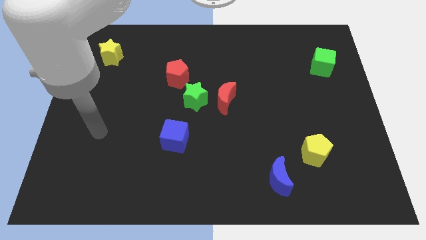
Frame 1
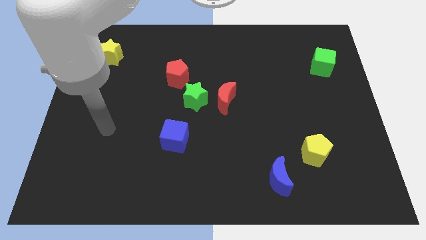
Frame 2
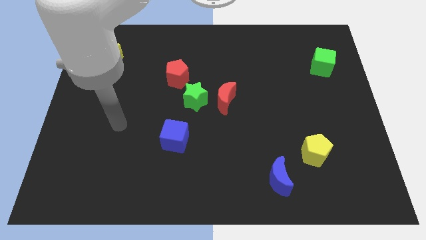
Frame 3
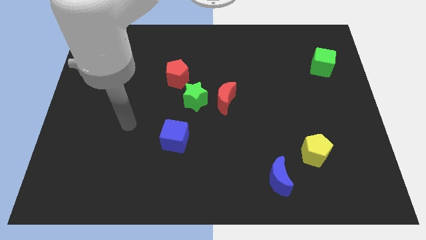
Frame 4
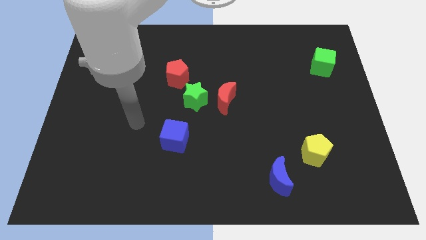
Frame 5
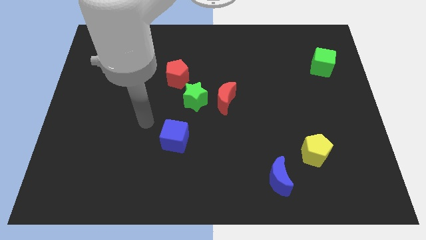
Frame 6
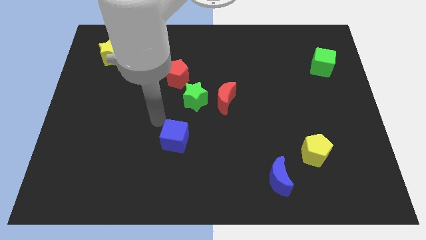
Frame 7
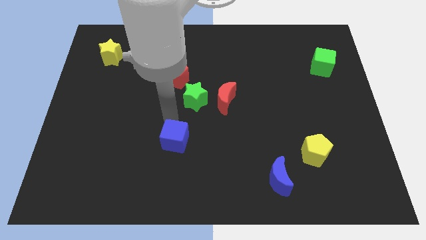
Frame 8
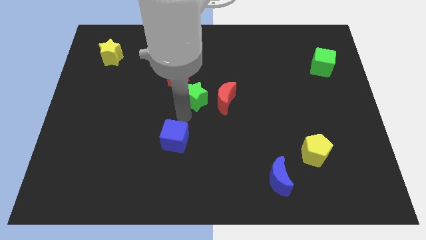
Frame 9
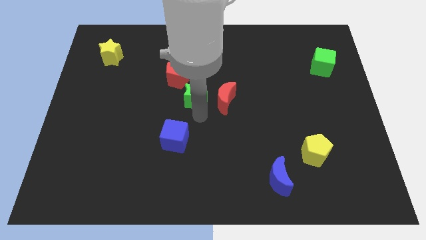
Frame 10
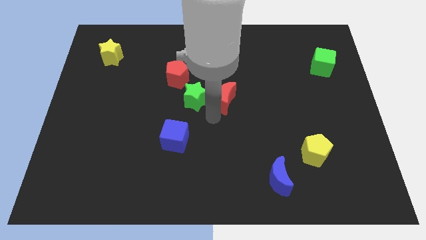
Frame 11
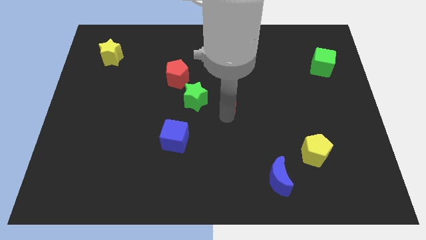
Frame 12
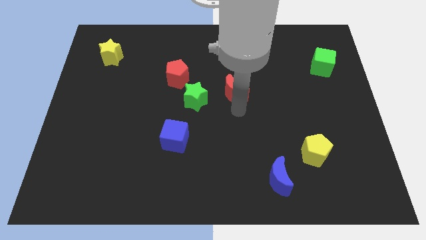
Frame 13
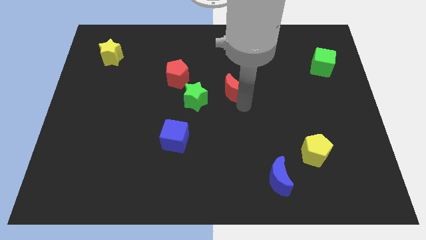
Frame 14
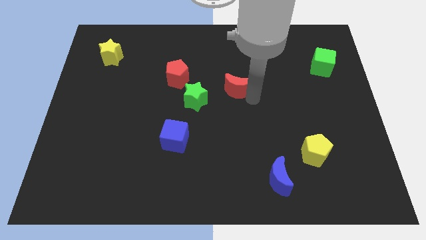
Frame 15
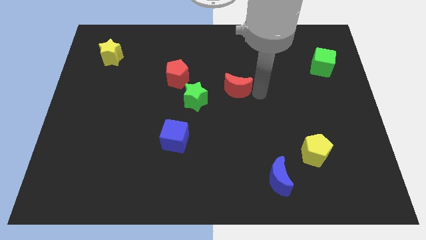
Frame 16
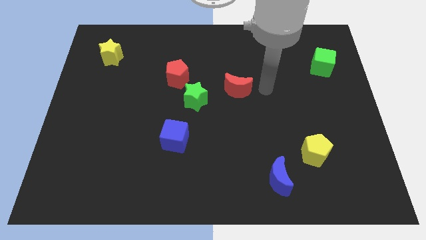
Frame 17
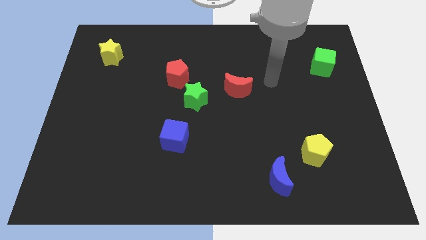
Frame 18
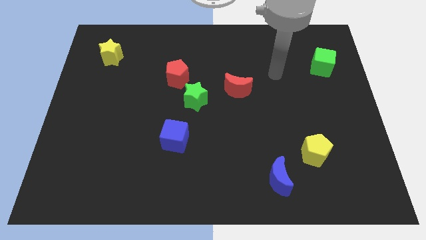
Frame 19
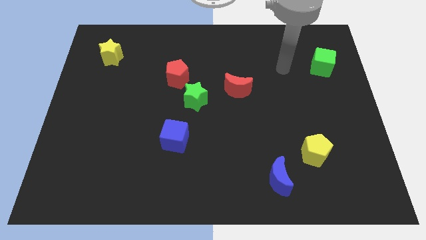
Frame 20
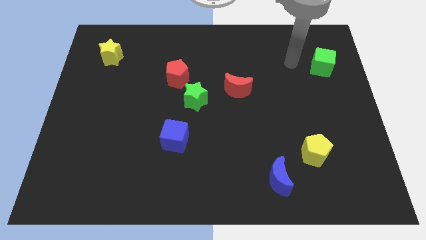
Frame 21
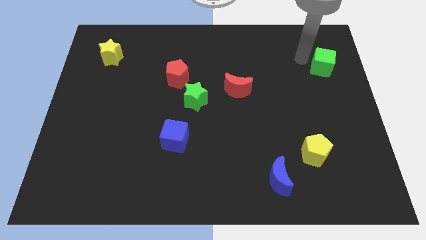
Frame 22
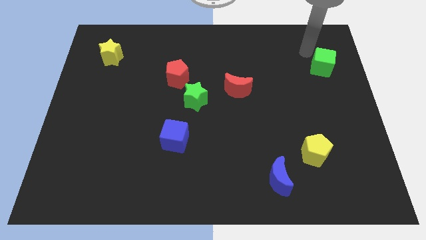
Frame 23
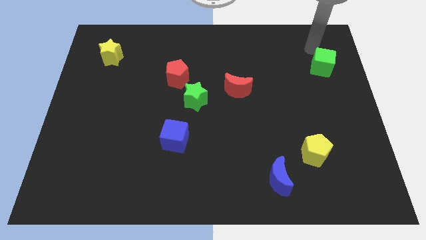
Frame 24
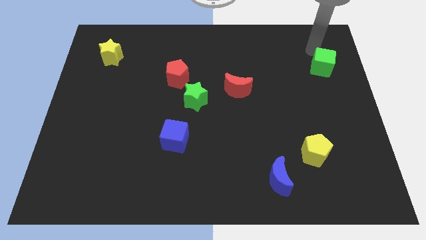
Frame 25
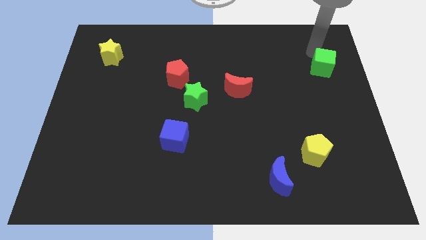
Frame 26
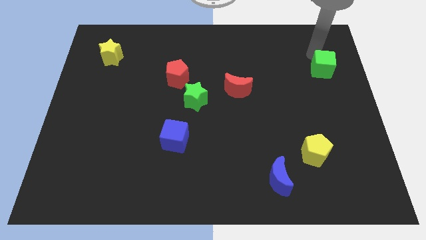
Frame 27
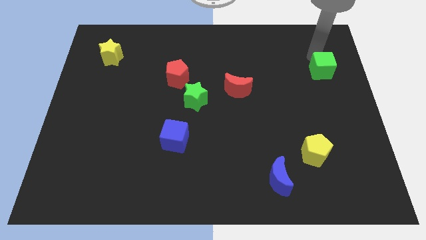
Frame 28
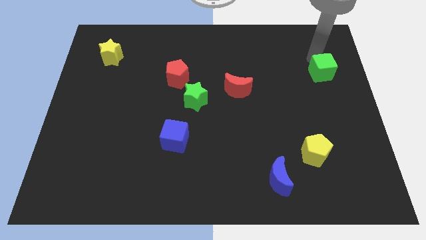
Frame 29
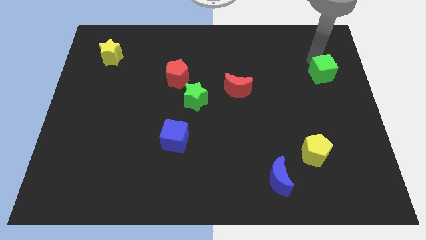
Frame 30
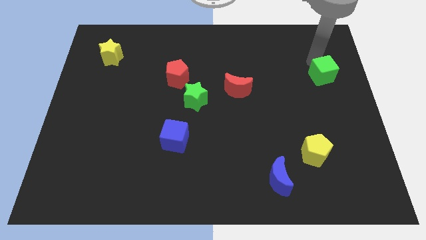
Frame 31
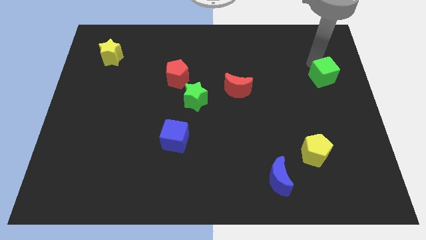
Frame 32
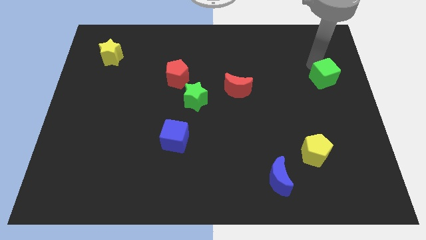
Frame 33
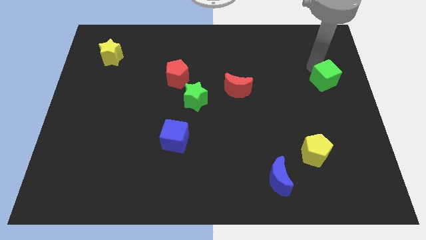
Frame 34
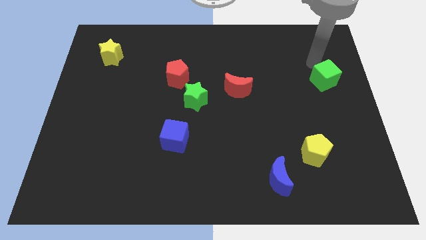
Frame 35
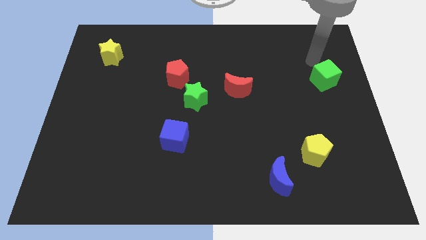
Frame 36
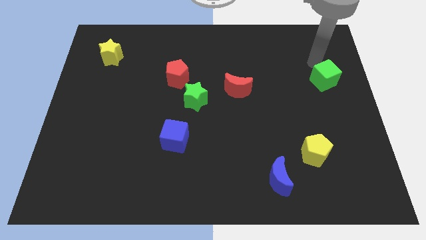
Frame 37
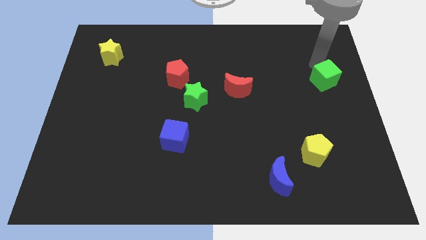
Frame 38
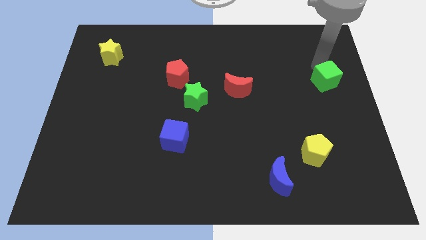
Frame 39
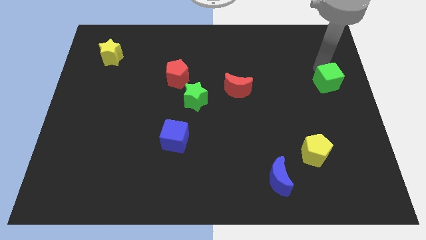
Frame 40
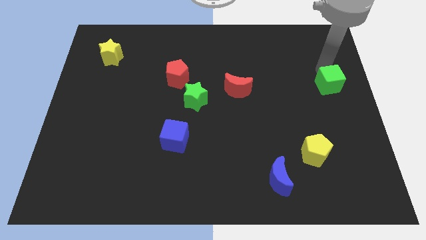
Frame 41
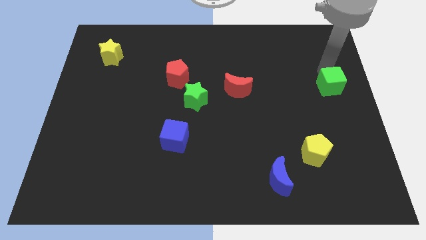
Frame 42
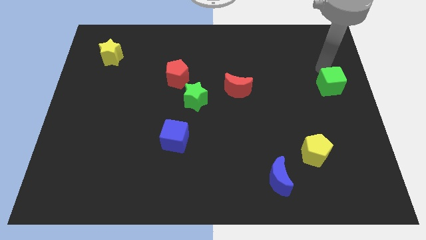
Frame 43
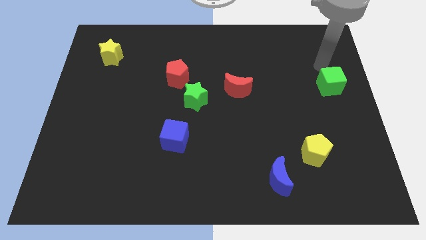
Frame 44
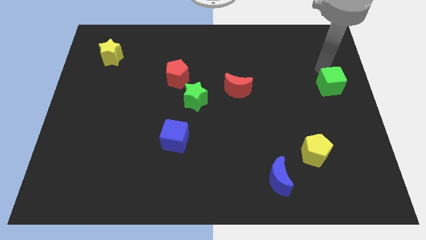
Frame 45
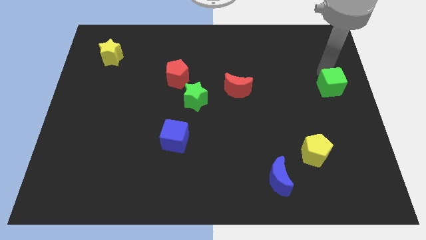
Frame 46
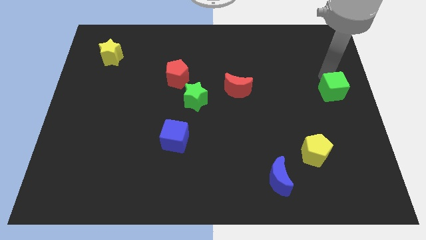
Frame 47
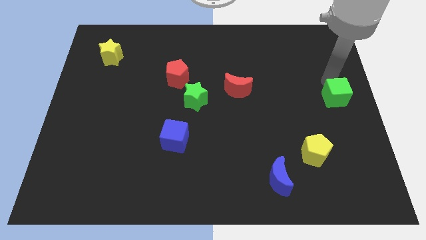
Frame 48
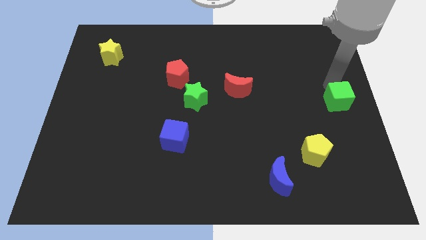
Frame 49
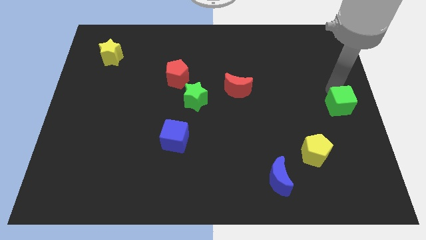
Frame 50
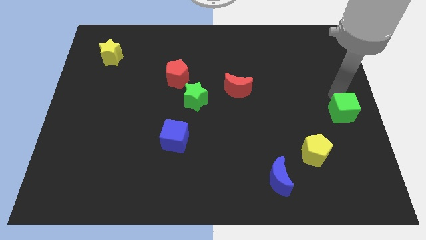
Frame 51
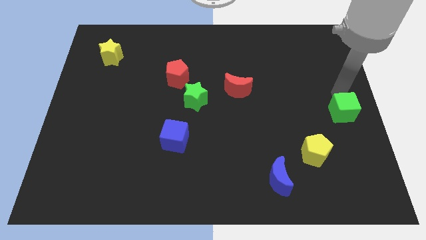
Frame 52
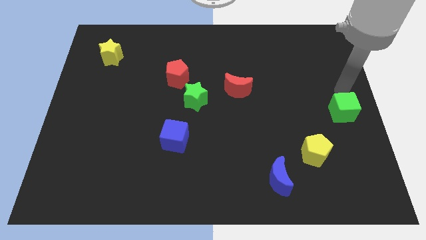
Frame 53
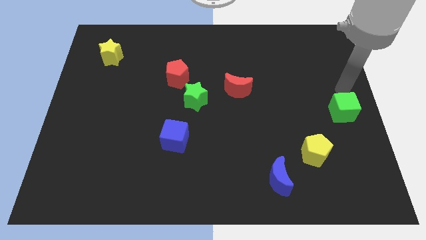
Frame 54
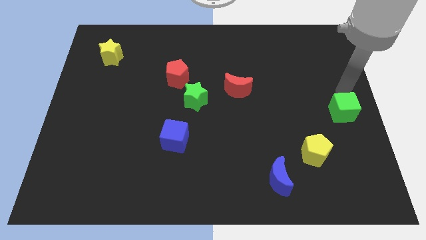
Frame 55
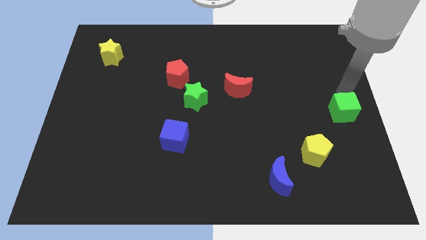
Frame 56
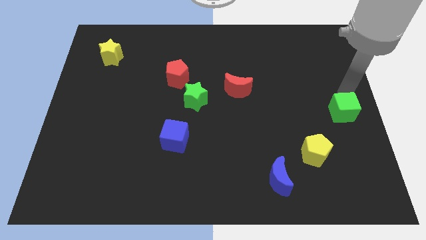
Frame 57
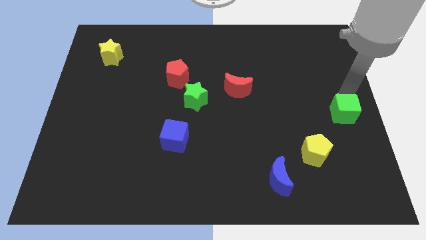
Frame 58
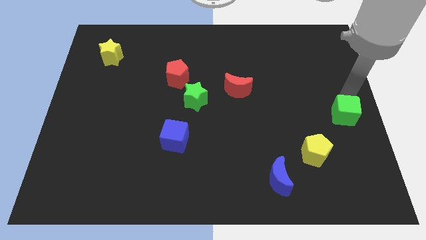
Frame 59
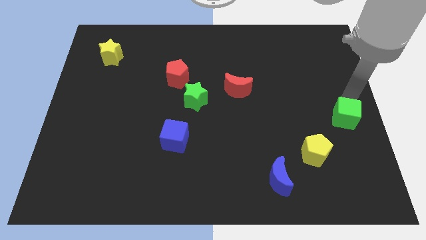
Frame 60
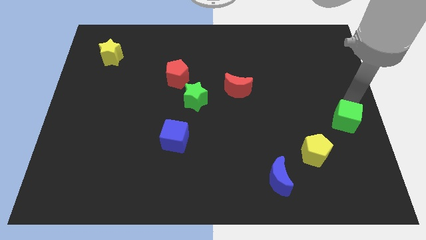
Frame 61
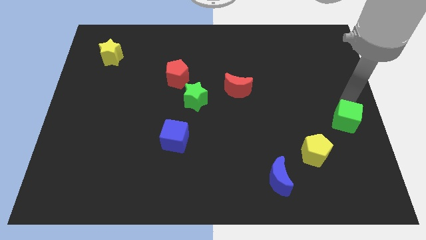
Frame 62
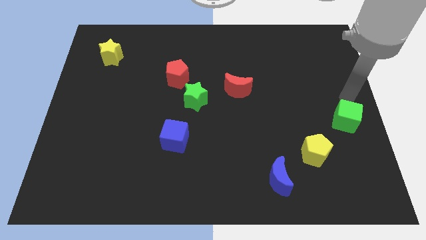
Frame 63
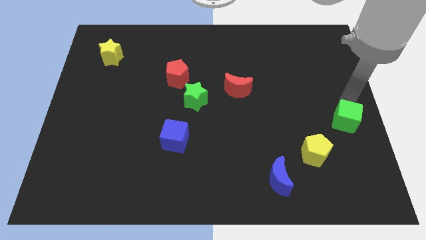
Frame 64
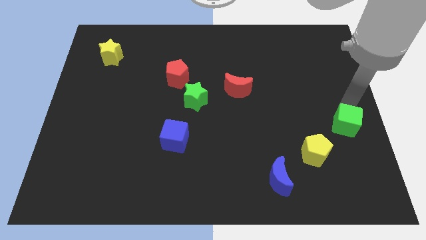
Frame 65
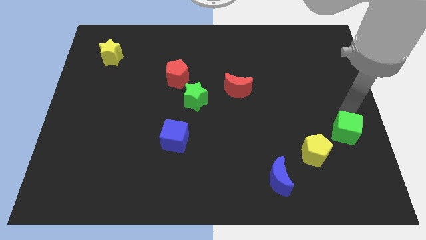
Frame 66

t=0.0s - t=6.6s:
move the green cube down

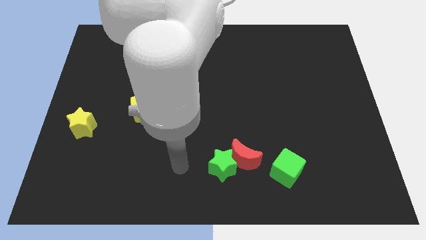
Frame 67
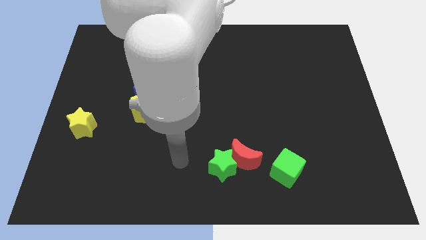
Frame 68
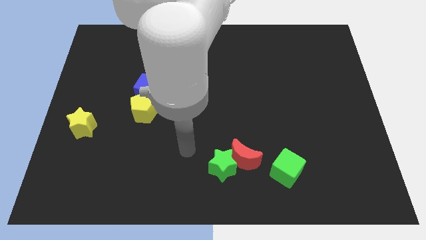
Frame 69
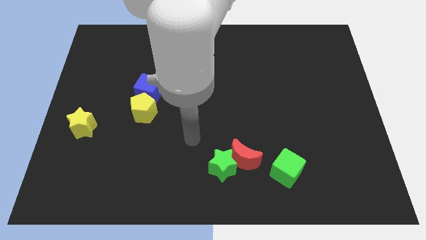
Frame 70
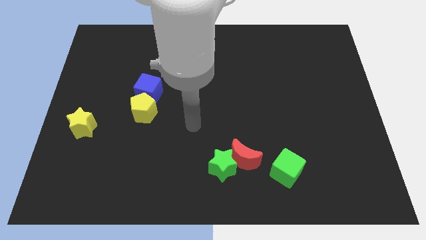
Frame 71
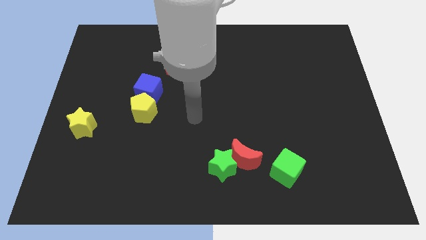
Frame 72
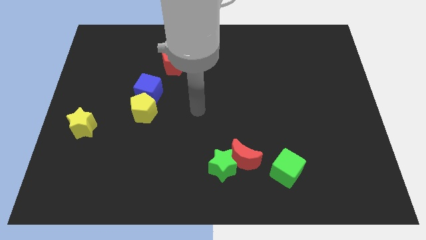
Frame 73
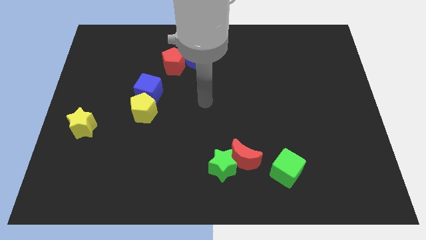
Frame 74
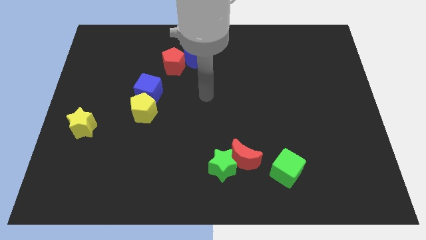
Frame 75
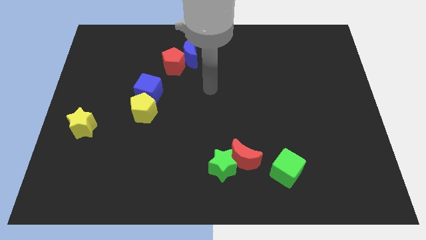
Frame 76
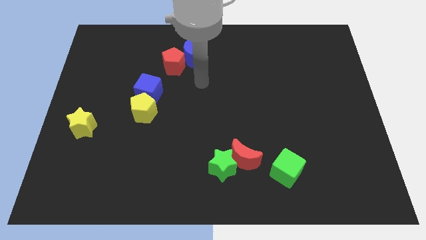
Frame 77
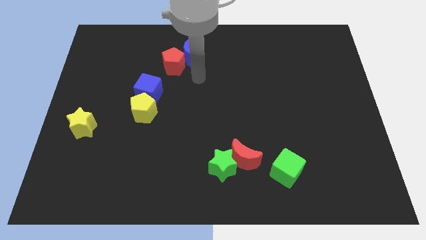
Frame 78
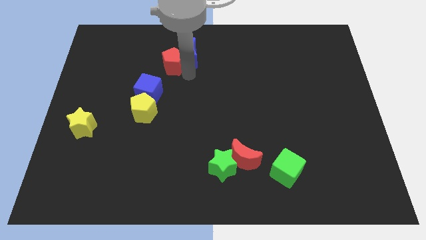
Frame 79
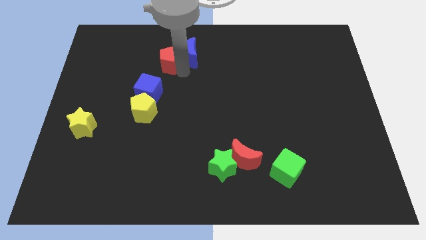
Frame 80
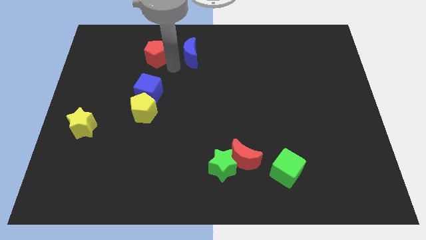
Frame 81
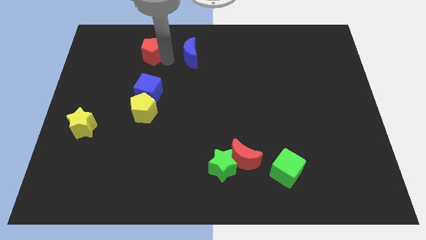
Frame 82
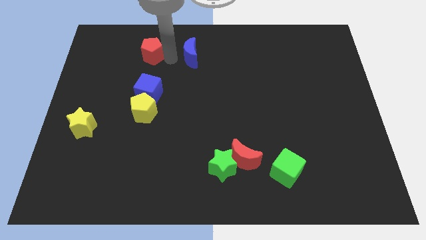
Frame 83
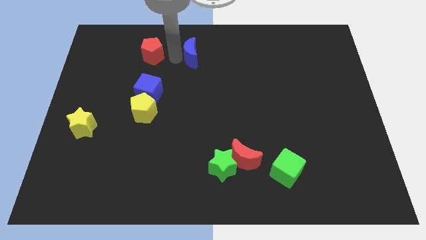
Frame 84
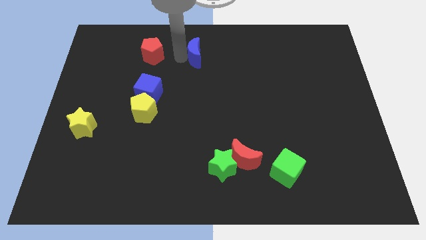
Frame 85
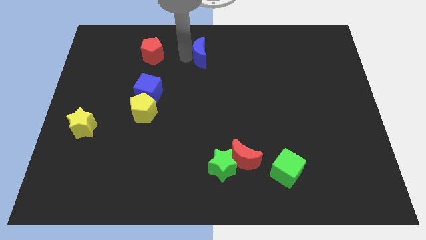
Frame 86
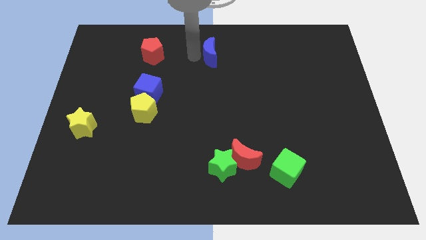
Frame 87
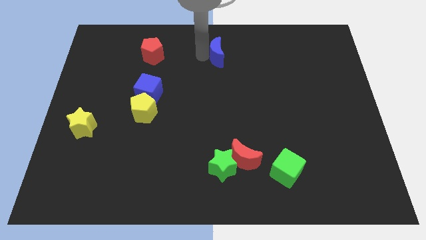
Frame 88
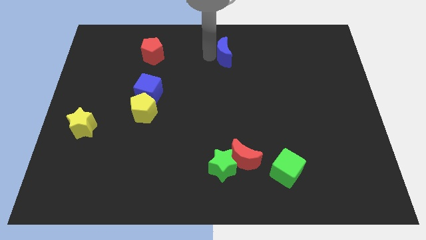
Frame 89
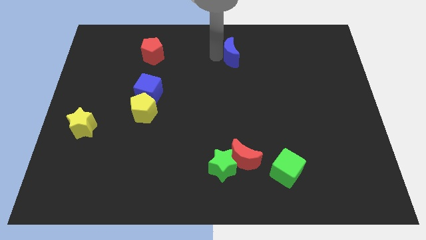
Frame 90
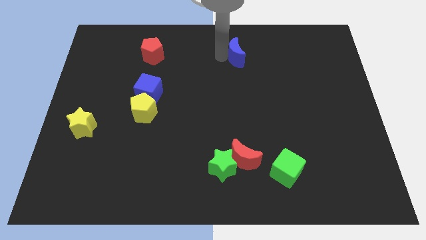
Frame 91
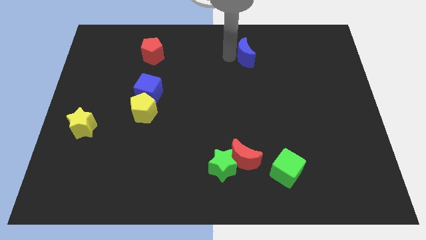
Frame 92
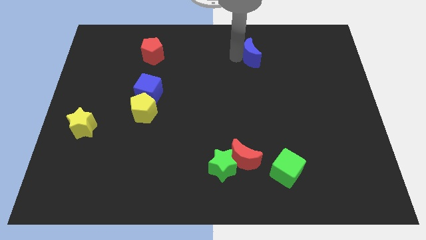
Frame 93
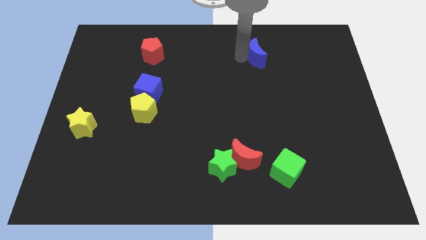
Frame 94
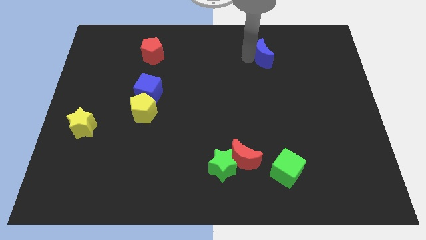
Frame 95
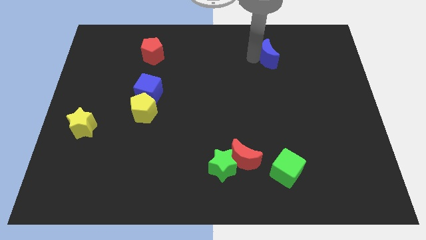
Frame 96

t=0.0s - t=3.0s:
push the blue moon to the right
